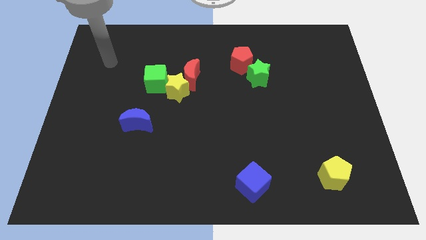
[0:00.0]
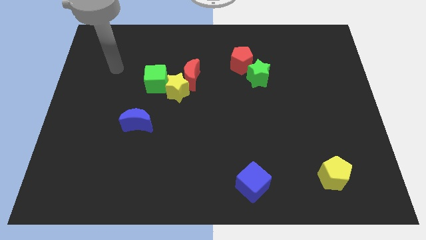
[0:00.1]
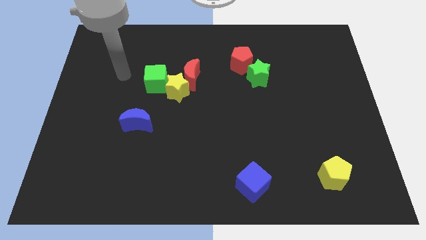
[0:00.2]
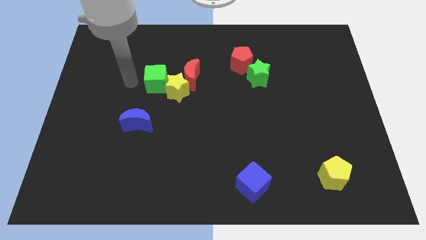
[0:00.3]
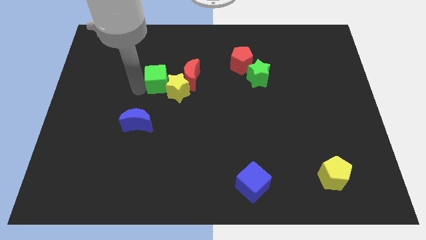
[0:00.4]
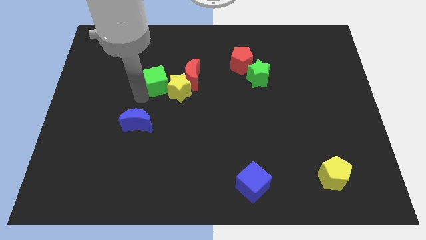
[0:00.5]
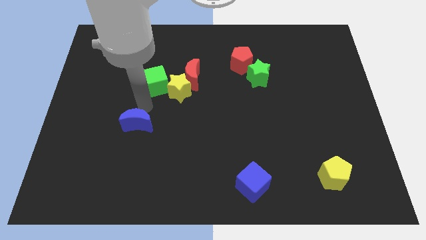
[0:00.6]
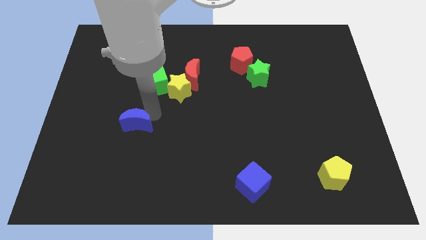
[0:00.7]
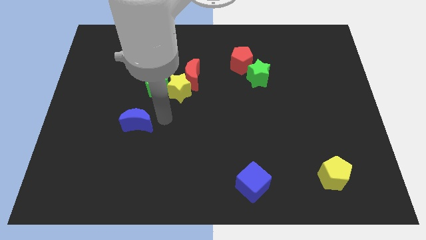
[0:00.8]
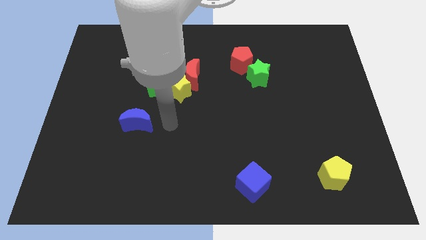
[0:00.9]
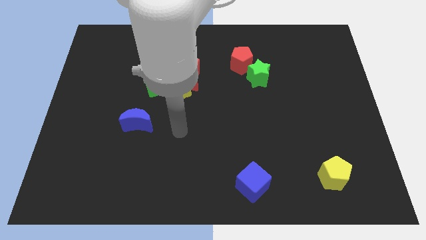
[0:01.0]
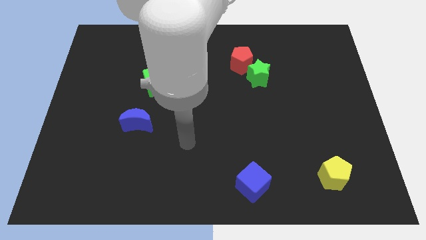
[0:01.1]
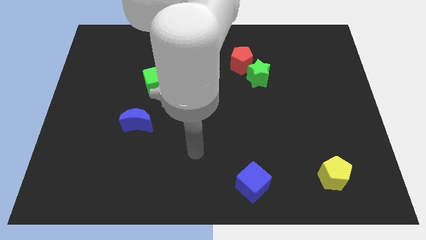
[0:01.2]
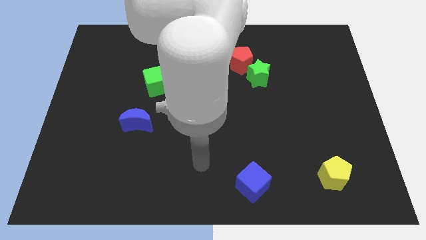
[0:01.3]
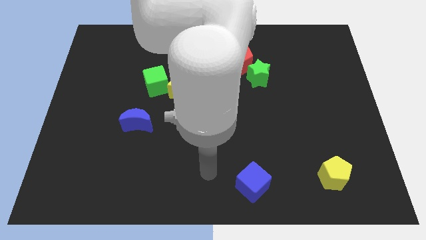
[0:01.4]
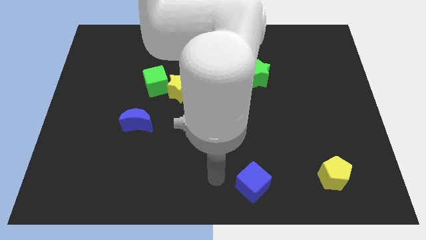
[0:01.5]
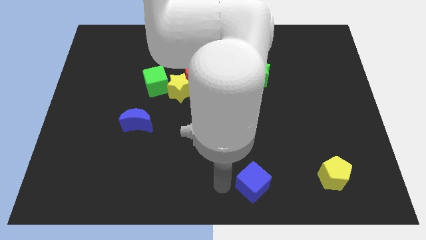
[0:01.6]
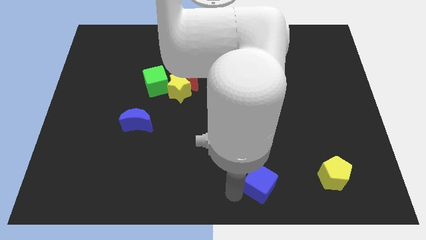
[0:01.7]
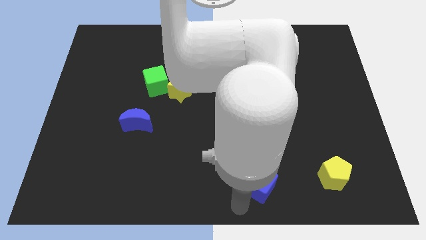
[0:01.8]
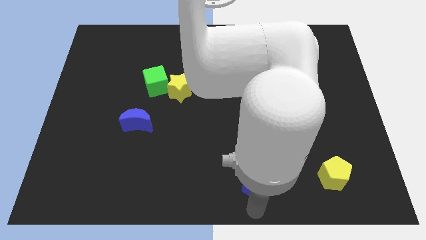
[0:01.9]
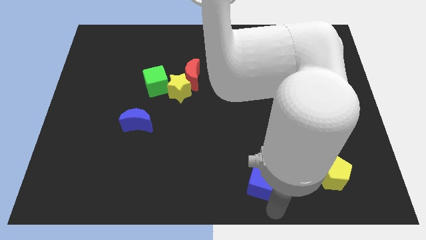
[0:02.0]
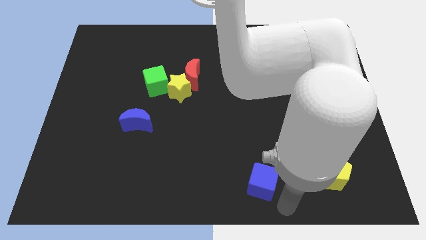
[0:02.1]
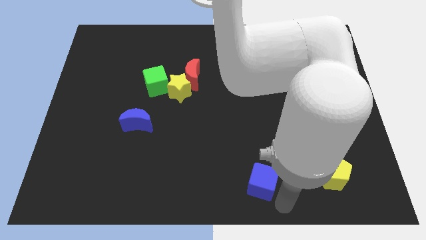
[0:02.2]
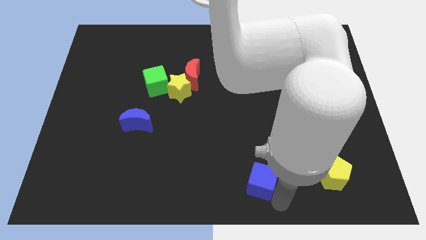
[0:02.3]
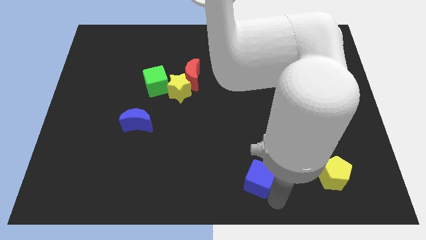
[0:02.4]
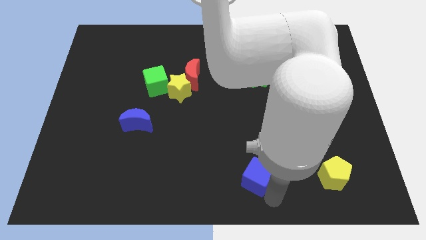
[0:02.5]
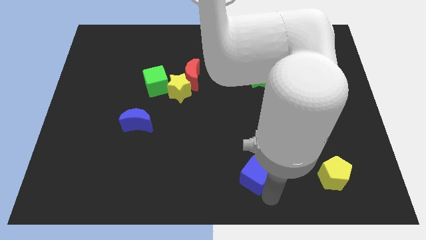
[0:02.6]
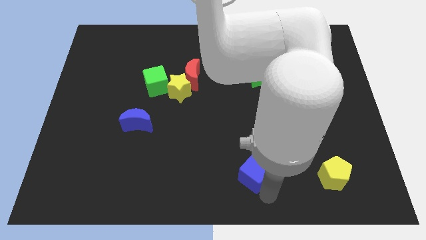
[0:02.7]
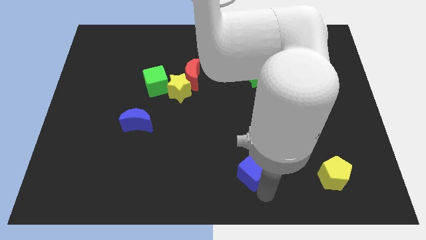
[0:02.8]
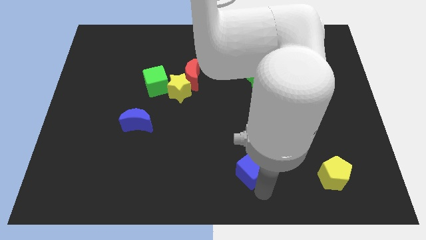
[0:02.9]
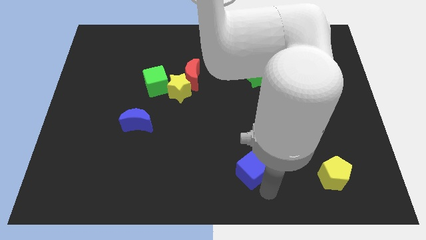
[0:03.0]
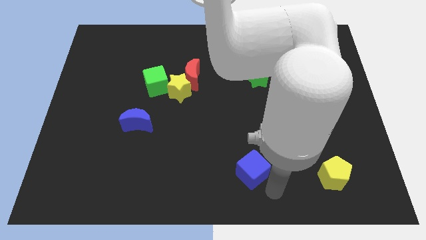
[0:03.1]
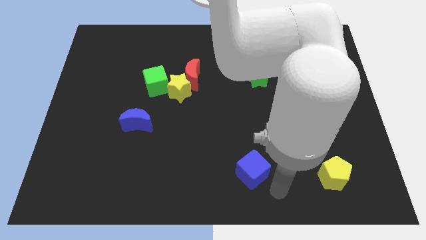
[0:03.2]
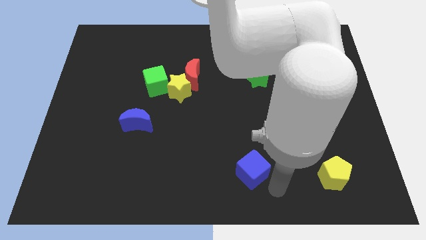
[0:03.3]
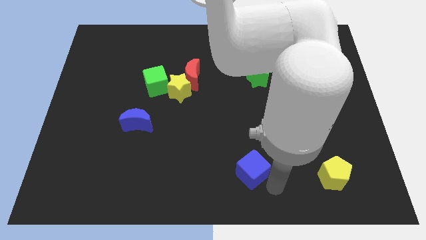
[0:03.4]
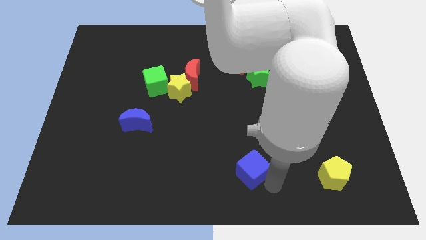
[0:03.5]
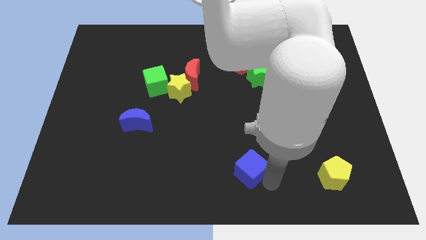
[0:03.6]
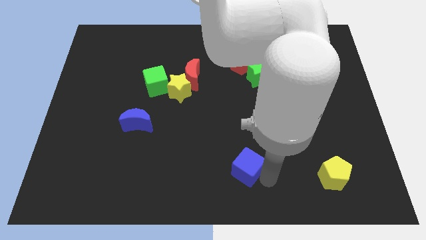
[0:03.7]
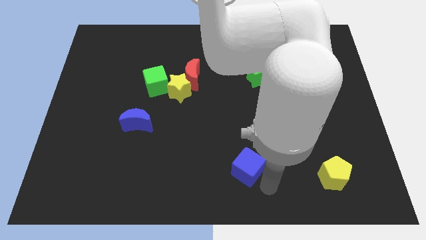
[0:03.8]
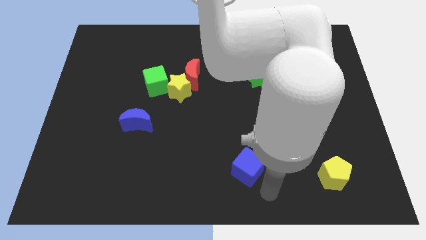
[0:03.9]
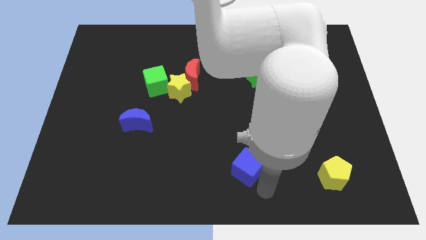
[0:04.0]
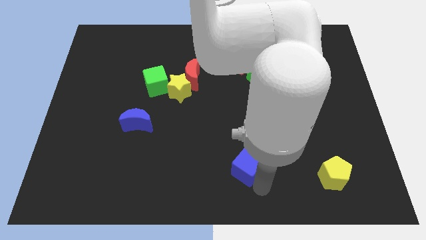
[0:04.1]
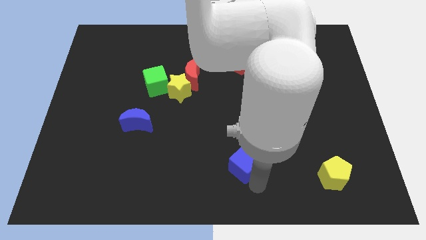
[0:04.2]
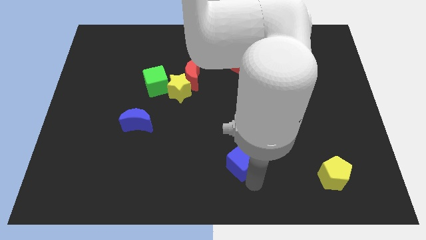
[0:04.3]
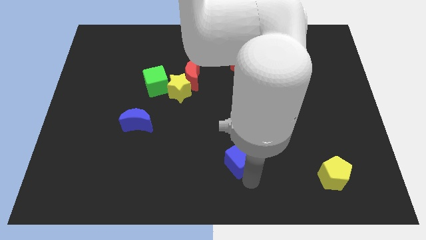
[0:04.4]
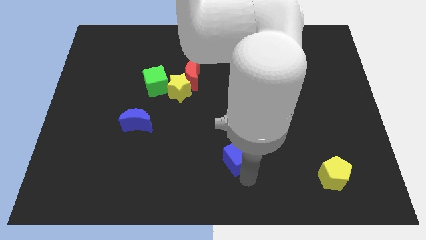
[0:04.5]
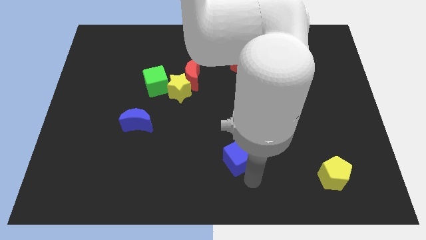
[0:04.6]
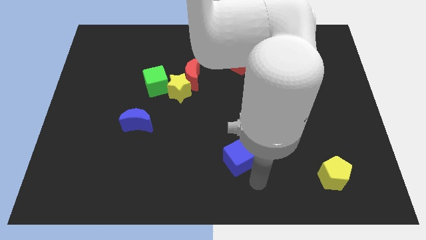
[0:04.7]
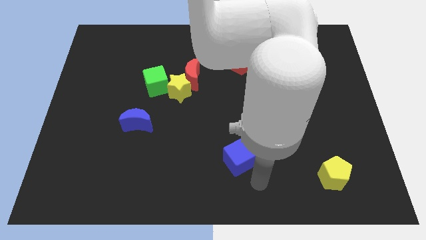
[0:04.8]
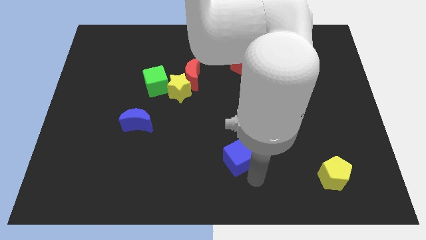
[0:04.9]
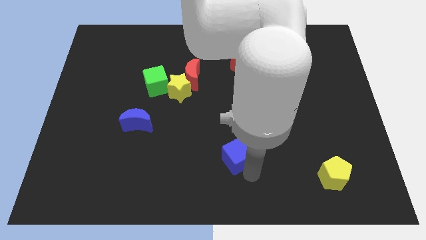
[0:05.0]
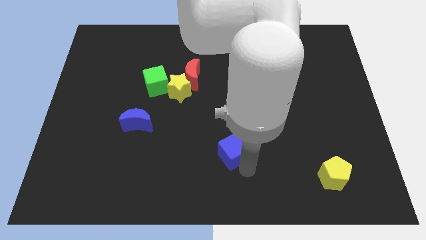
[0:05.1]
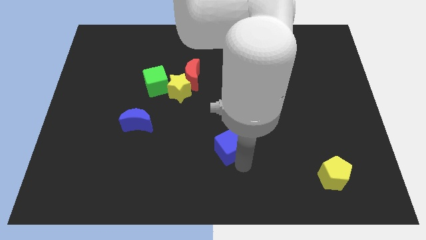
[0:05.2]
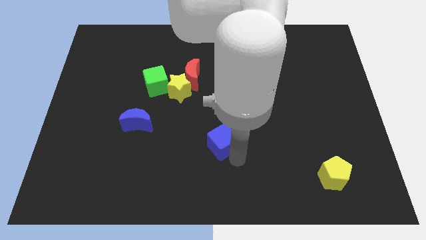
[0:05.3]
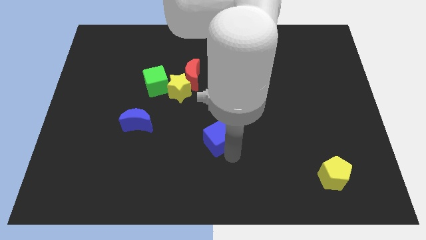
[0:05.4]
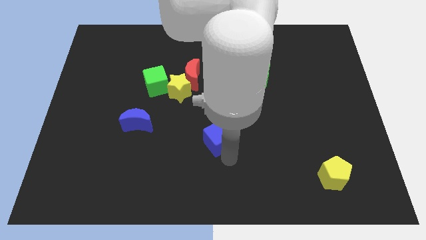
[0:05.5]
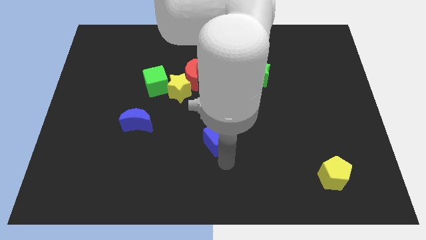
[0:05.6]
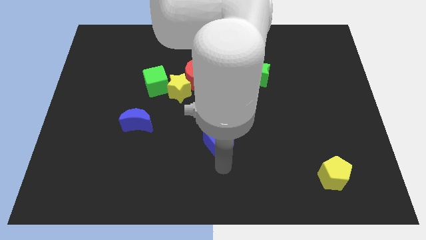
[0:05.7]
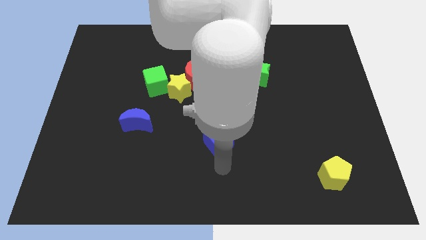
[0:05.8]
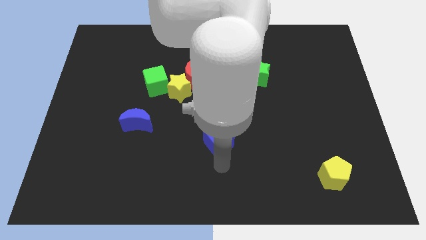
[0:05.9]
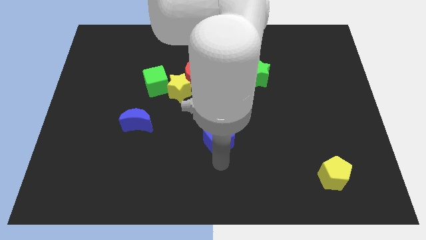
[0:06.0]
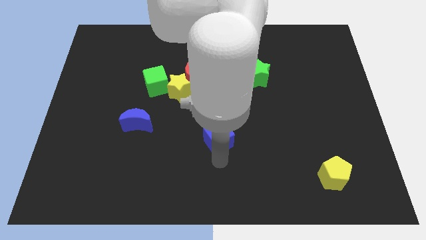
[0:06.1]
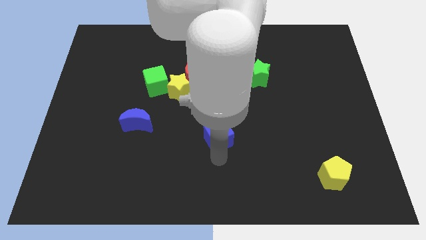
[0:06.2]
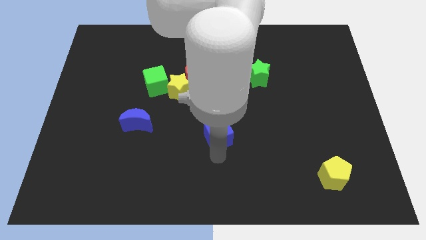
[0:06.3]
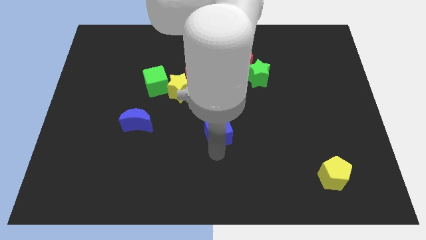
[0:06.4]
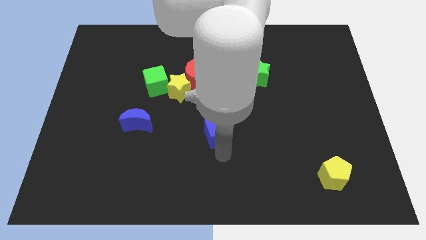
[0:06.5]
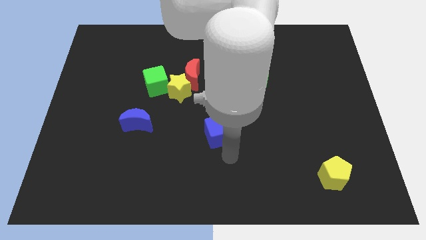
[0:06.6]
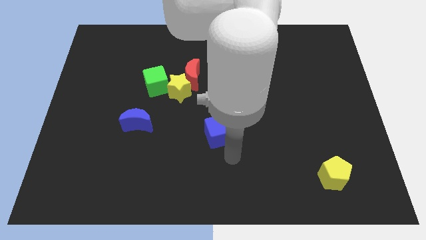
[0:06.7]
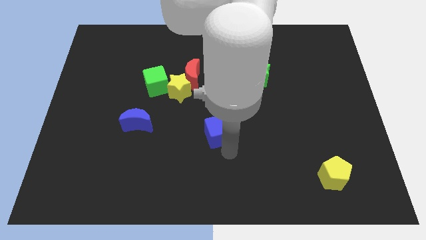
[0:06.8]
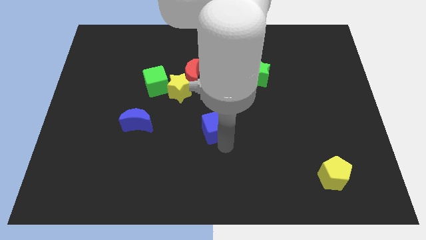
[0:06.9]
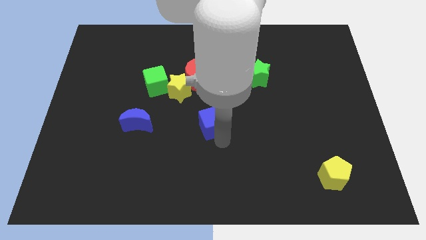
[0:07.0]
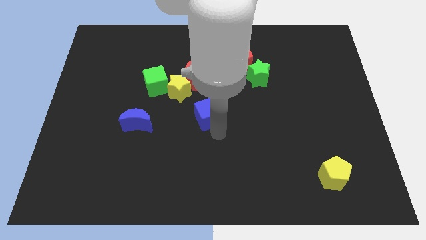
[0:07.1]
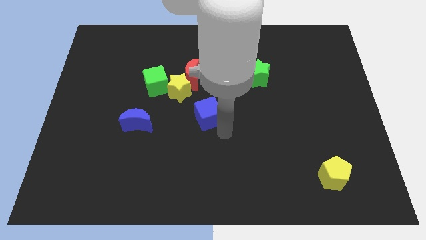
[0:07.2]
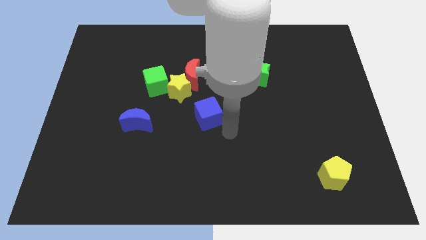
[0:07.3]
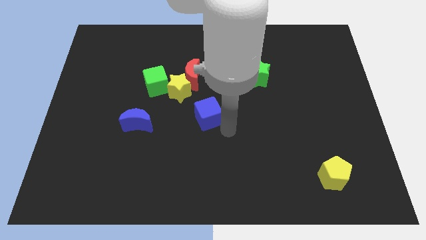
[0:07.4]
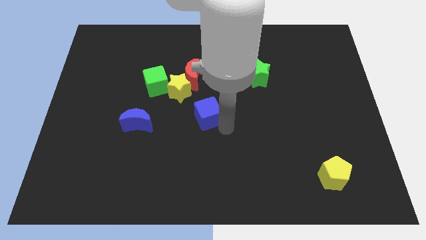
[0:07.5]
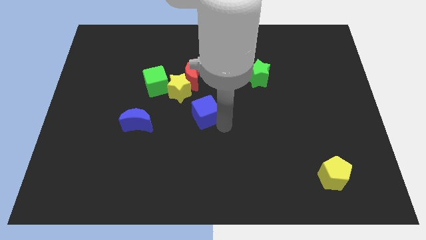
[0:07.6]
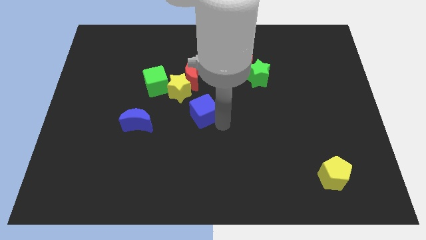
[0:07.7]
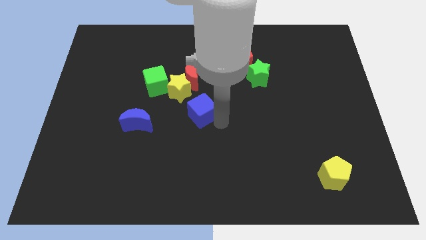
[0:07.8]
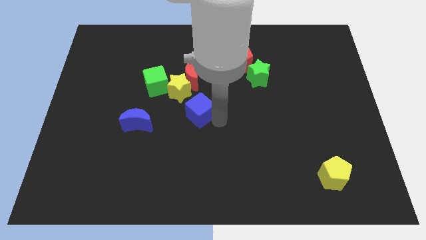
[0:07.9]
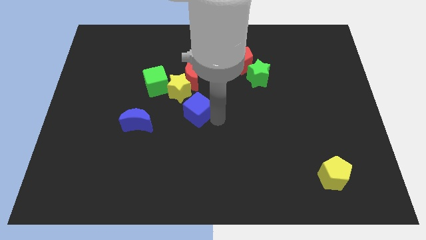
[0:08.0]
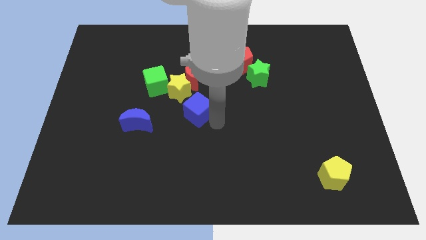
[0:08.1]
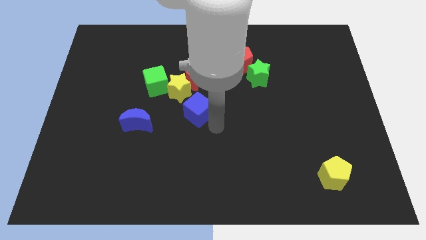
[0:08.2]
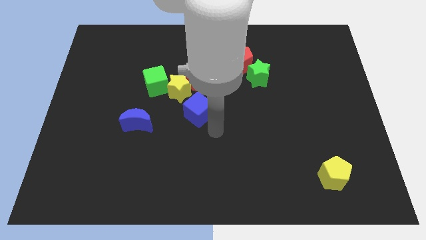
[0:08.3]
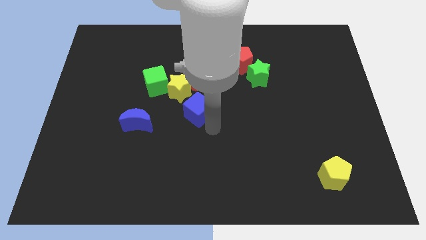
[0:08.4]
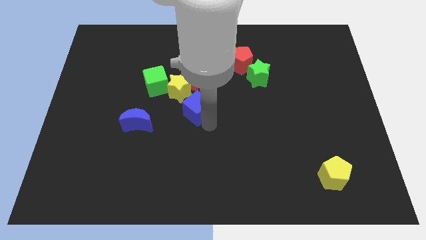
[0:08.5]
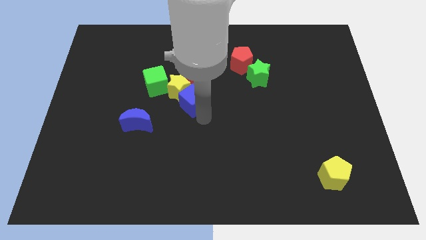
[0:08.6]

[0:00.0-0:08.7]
push the blue cube towards the yellow star
